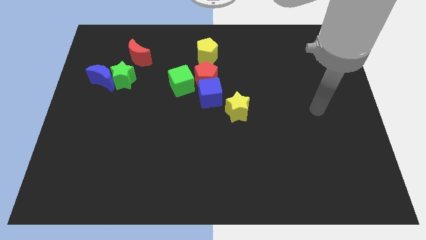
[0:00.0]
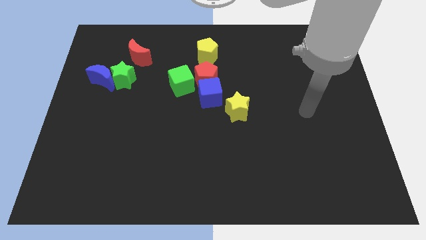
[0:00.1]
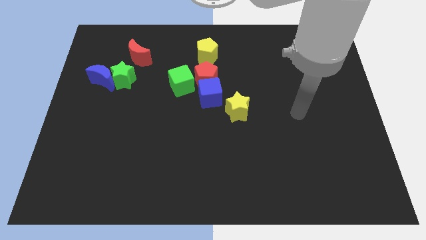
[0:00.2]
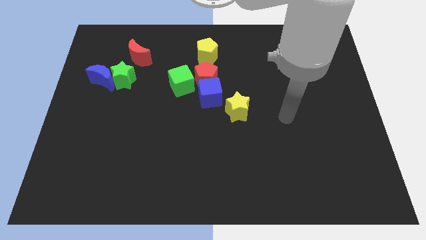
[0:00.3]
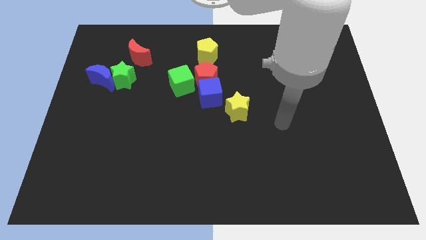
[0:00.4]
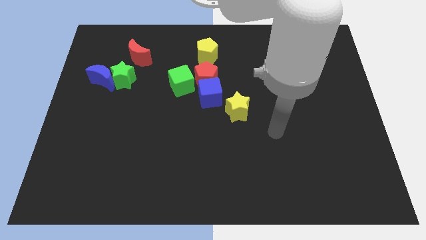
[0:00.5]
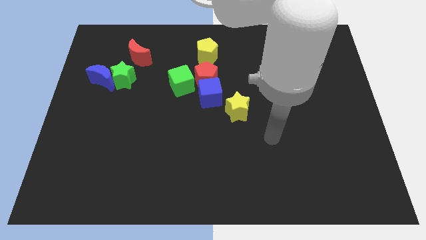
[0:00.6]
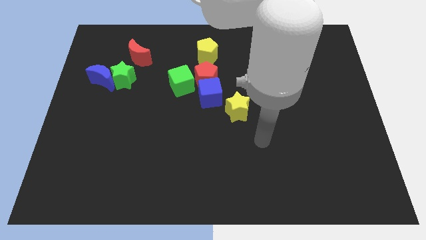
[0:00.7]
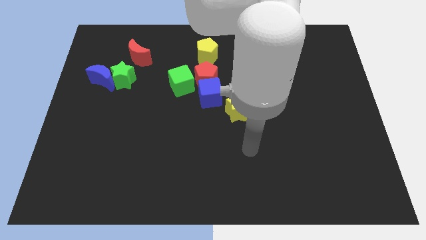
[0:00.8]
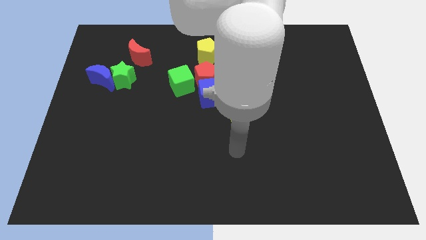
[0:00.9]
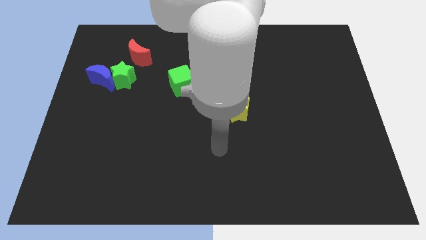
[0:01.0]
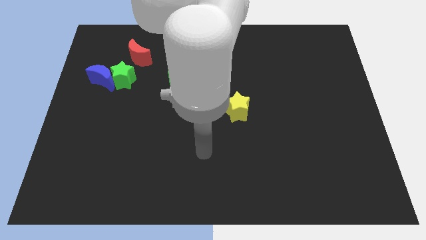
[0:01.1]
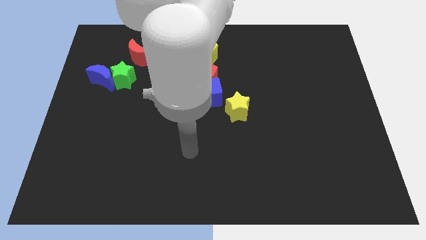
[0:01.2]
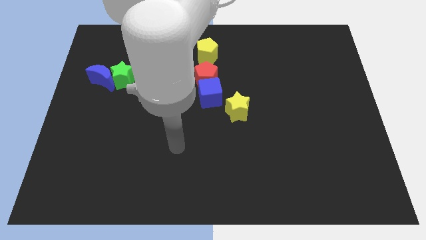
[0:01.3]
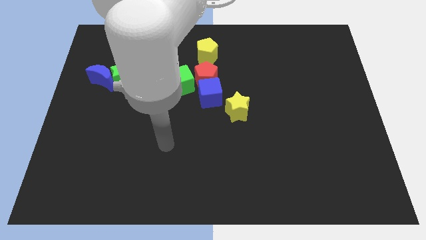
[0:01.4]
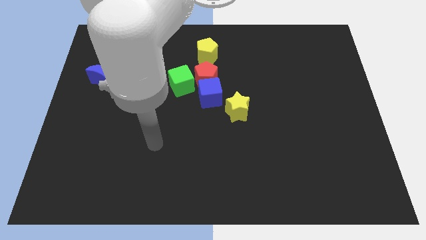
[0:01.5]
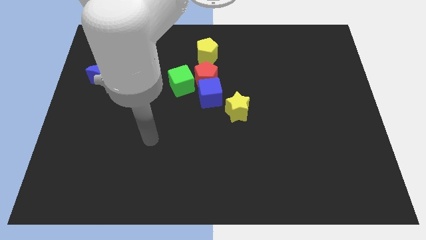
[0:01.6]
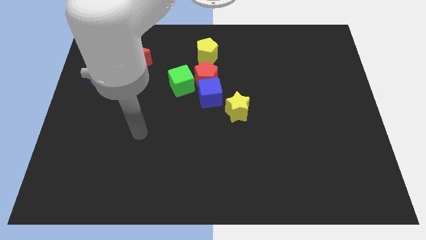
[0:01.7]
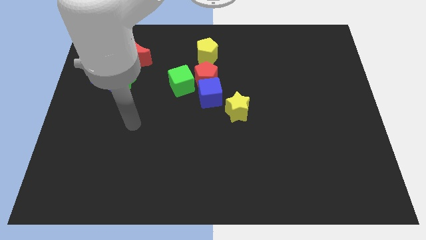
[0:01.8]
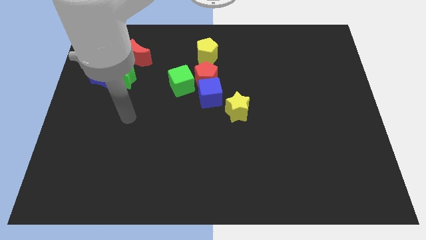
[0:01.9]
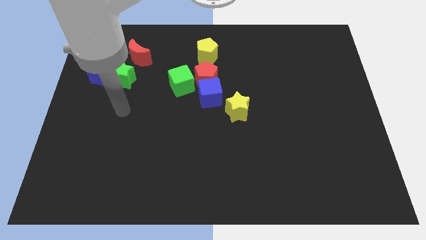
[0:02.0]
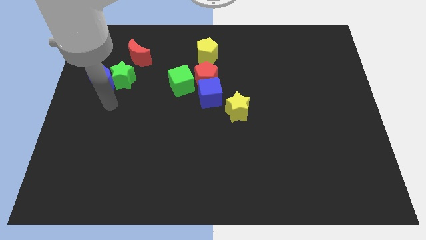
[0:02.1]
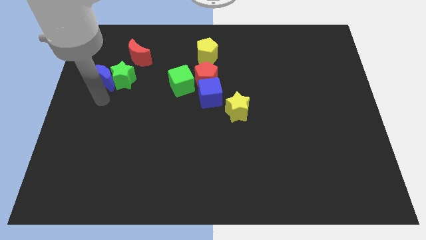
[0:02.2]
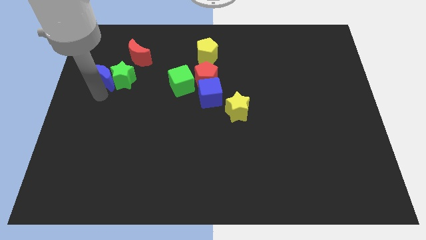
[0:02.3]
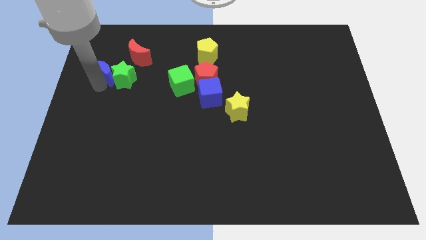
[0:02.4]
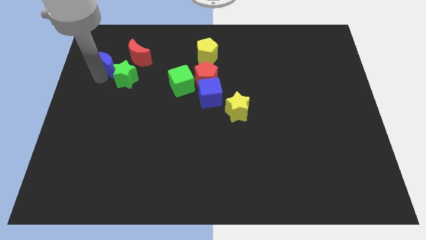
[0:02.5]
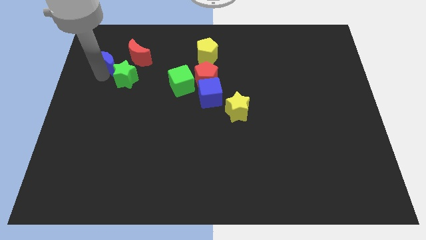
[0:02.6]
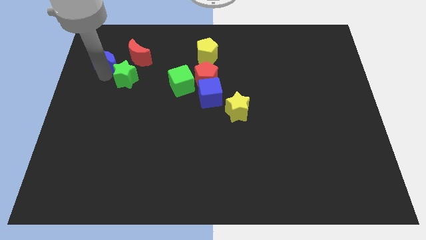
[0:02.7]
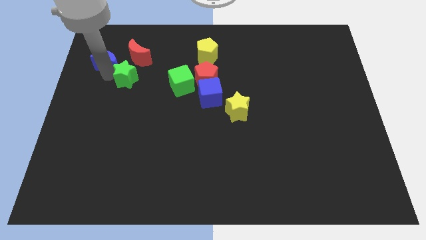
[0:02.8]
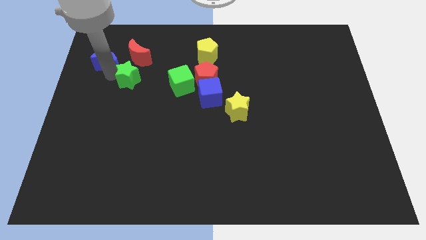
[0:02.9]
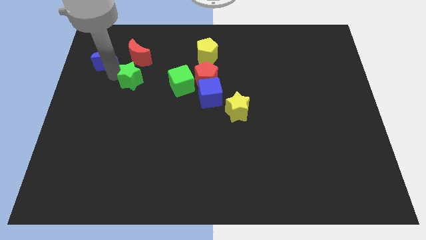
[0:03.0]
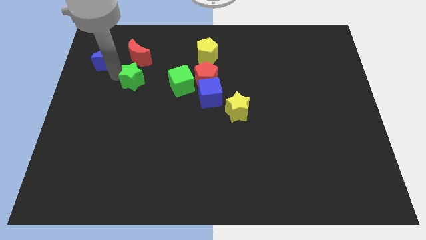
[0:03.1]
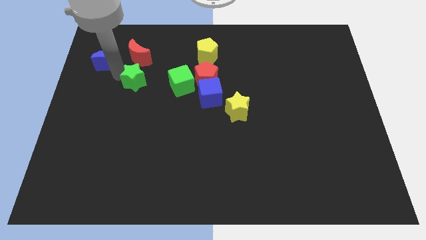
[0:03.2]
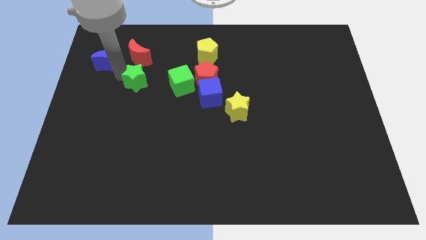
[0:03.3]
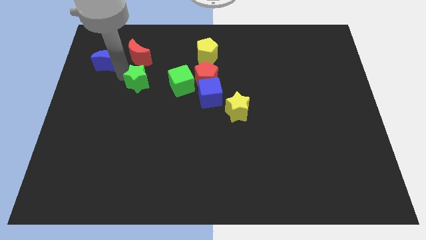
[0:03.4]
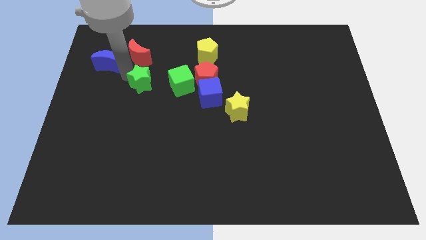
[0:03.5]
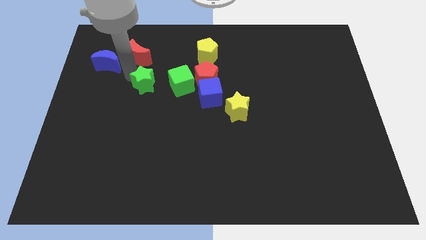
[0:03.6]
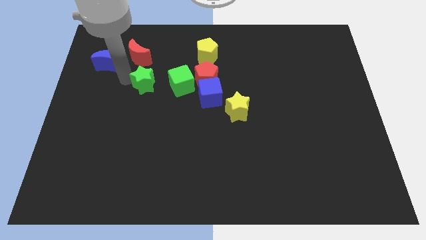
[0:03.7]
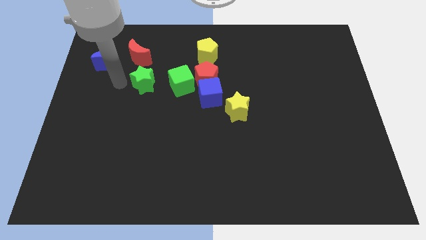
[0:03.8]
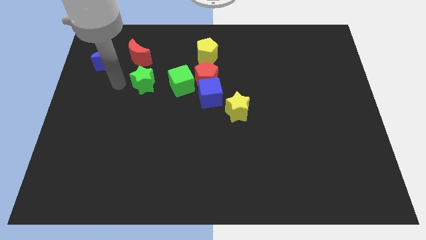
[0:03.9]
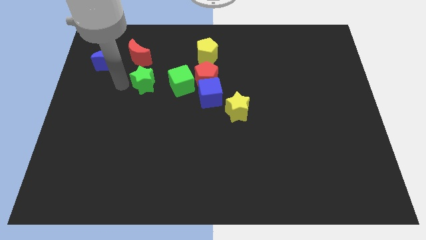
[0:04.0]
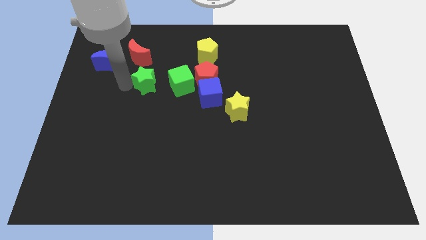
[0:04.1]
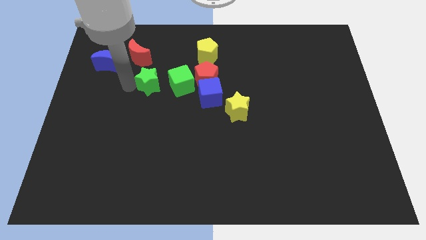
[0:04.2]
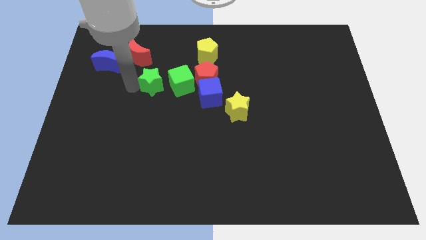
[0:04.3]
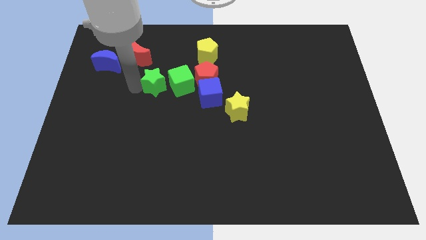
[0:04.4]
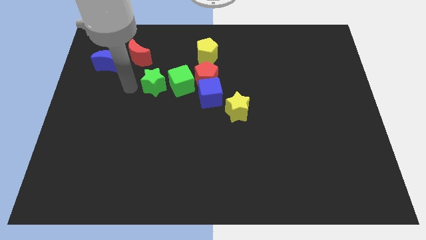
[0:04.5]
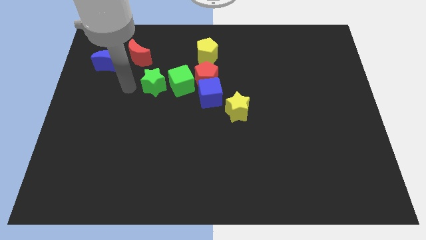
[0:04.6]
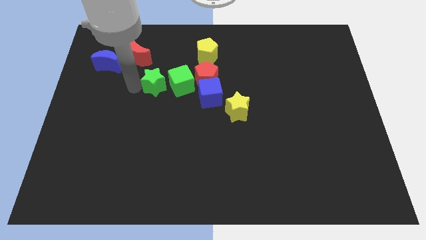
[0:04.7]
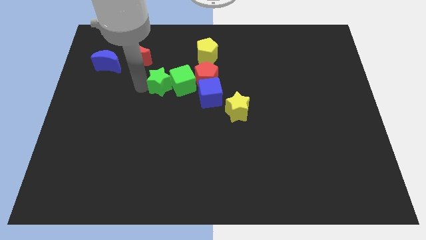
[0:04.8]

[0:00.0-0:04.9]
push the green star close to the green cube

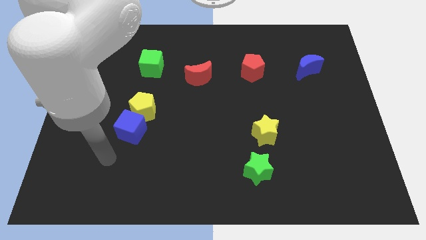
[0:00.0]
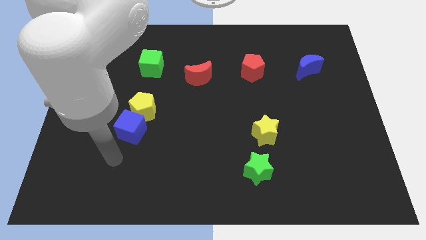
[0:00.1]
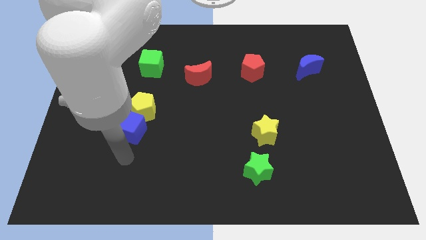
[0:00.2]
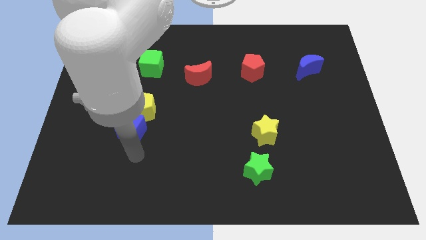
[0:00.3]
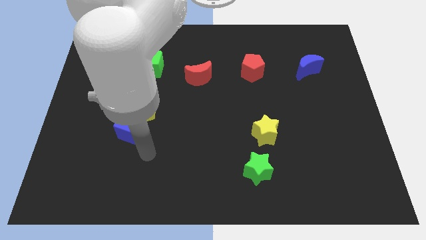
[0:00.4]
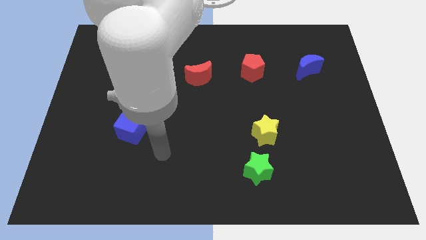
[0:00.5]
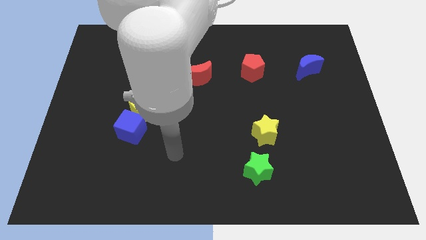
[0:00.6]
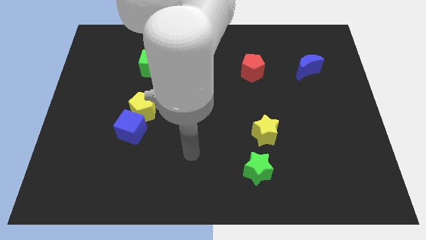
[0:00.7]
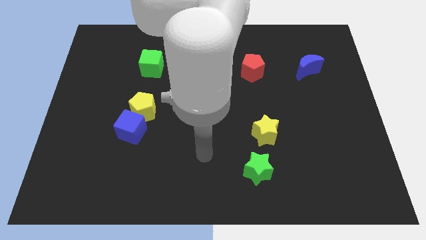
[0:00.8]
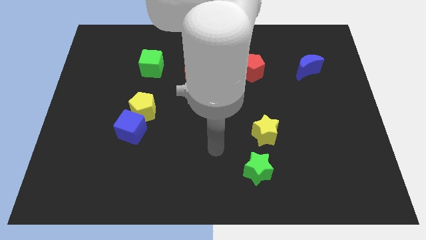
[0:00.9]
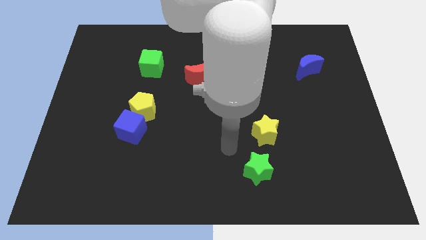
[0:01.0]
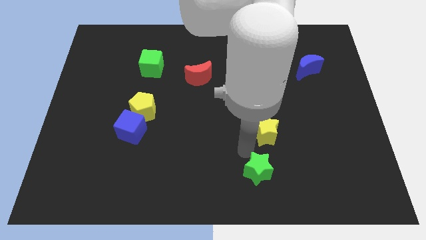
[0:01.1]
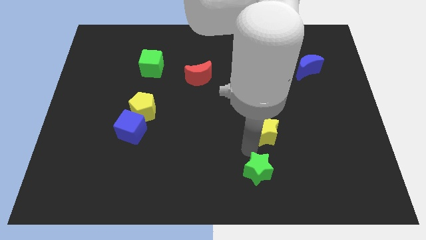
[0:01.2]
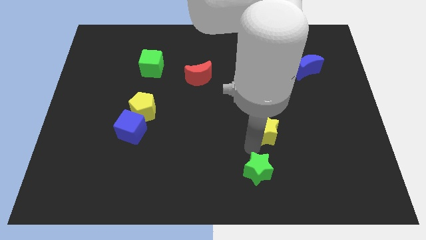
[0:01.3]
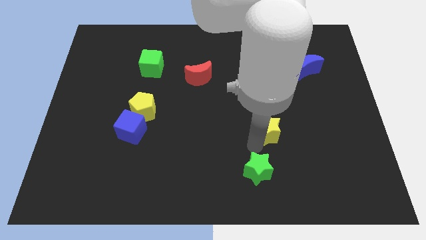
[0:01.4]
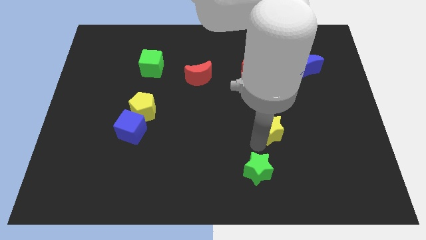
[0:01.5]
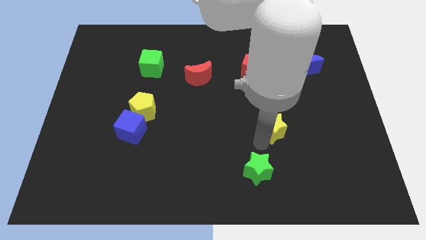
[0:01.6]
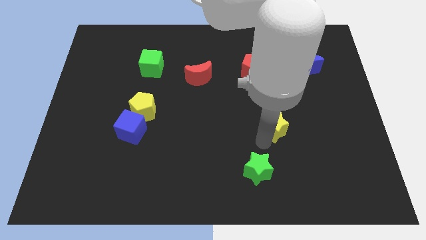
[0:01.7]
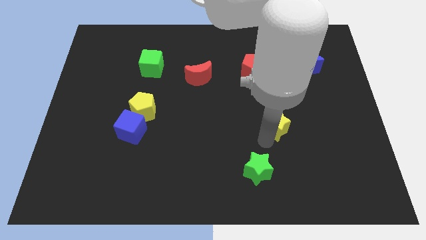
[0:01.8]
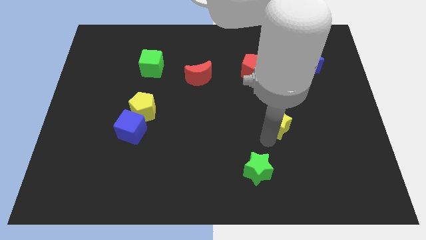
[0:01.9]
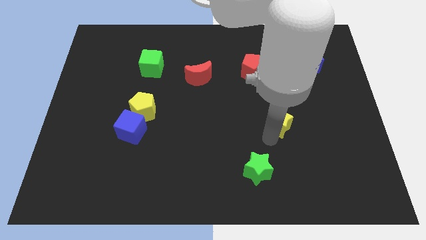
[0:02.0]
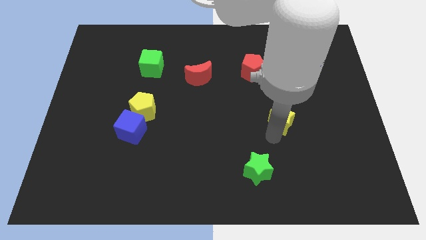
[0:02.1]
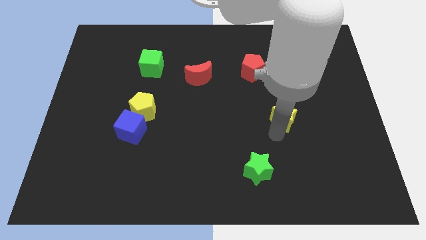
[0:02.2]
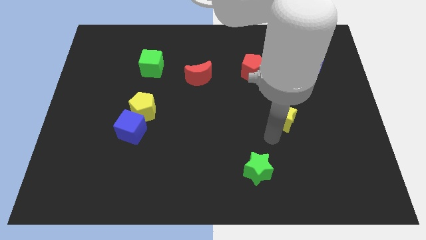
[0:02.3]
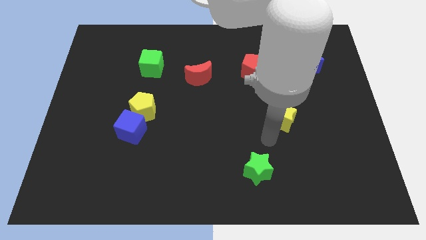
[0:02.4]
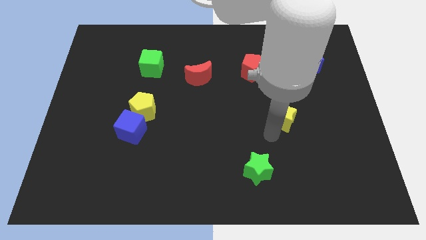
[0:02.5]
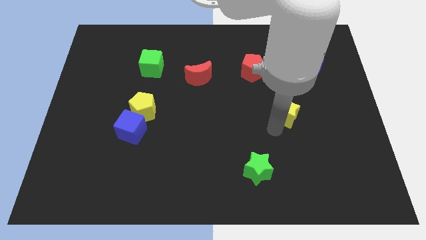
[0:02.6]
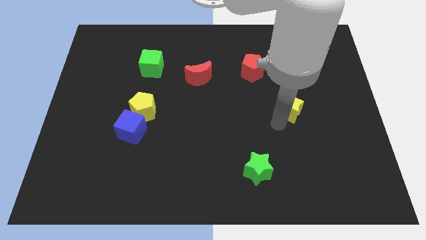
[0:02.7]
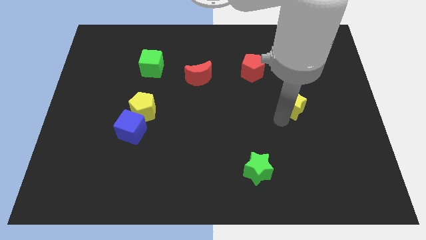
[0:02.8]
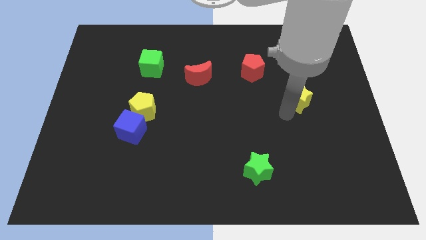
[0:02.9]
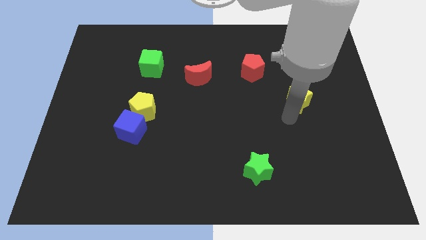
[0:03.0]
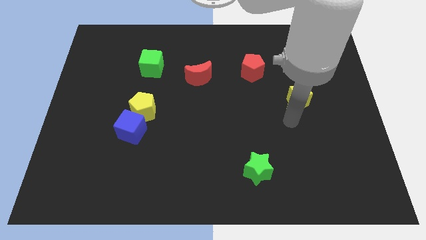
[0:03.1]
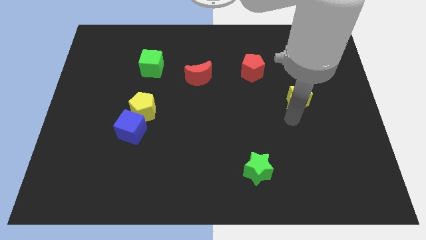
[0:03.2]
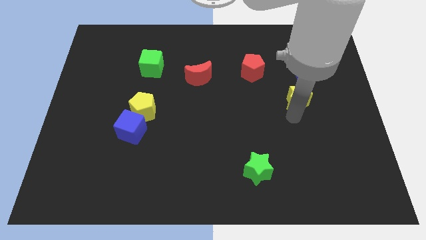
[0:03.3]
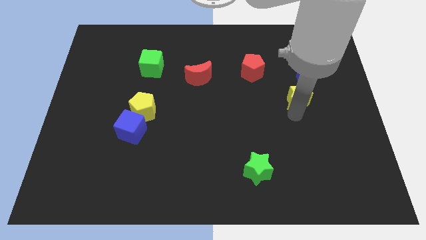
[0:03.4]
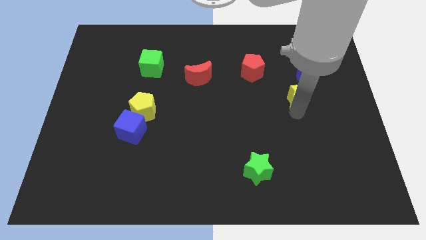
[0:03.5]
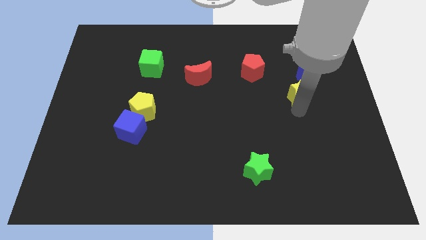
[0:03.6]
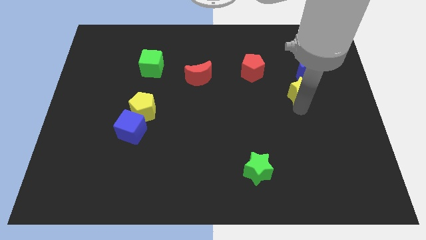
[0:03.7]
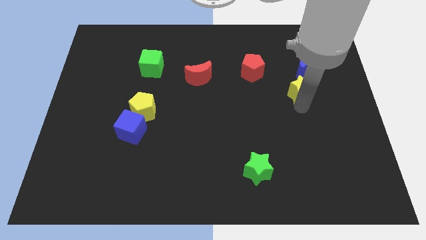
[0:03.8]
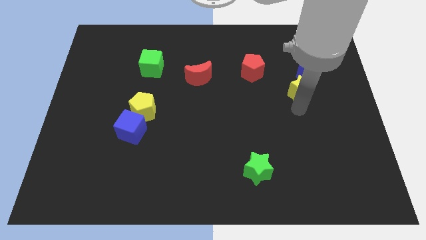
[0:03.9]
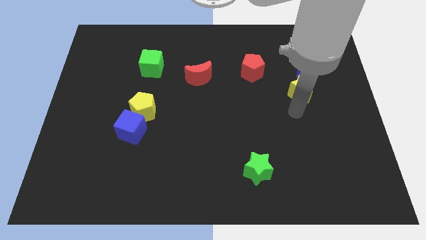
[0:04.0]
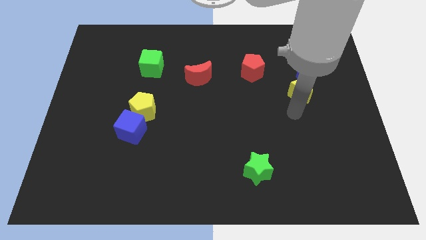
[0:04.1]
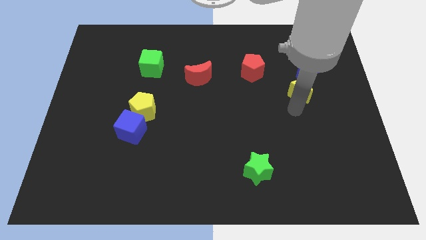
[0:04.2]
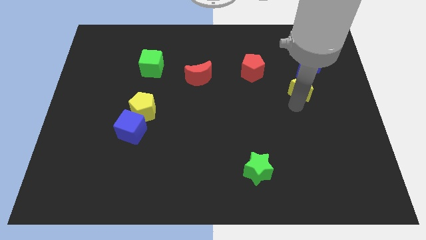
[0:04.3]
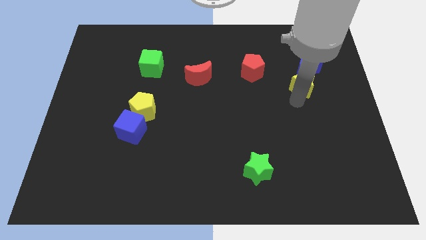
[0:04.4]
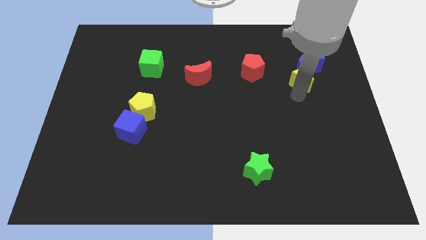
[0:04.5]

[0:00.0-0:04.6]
put the yellow star next to the blue moon
